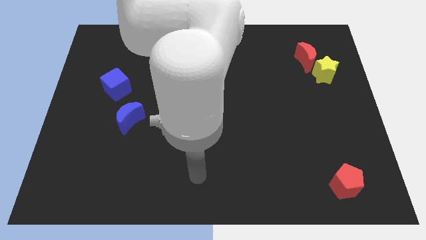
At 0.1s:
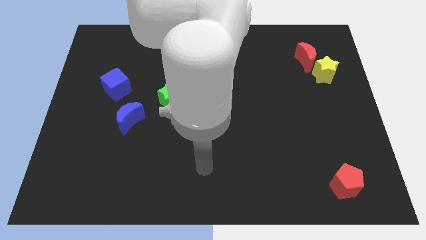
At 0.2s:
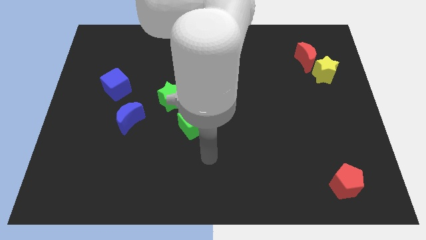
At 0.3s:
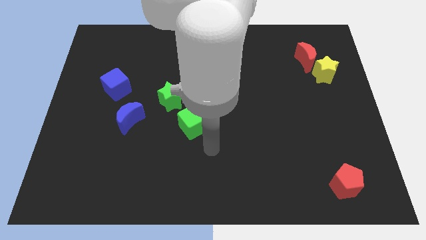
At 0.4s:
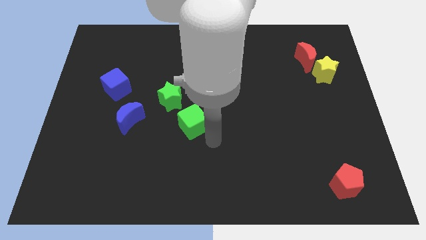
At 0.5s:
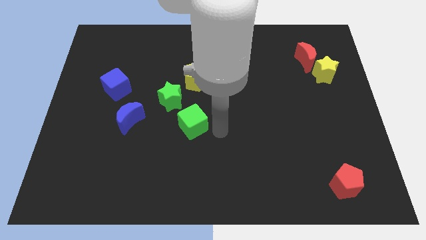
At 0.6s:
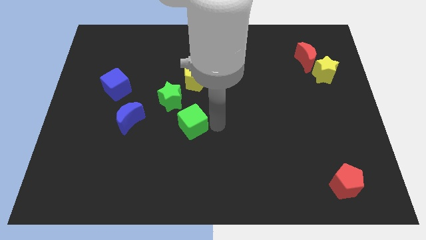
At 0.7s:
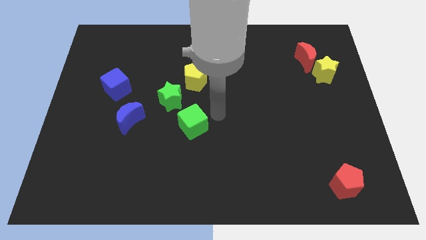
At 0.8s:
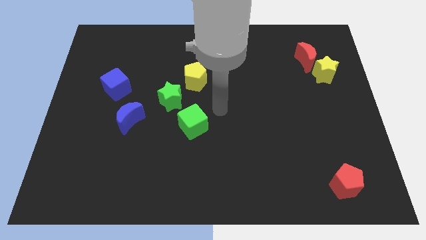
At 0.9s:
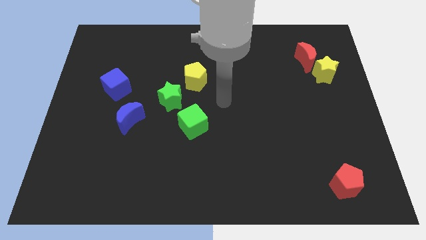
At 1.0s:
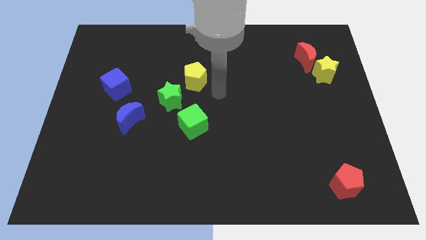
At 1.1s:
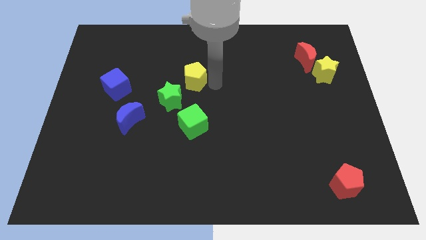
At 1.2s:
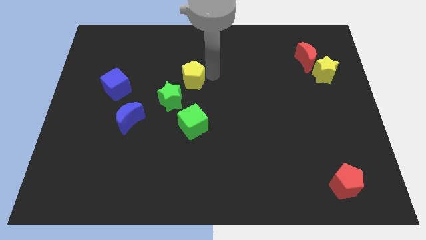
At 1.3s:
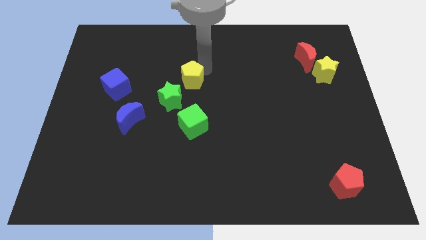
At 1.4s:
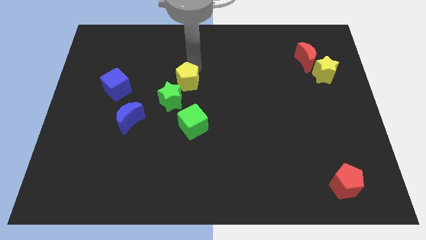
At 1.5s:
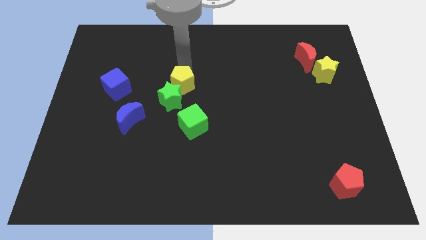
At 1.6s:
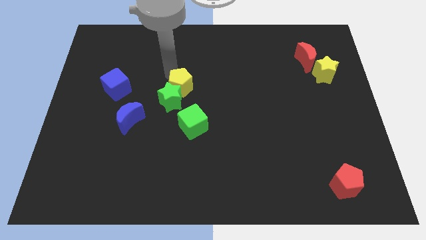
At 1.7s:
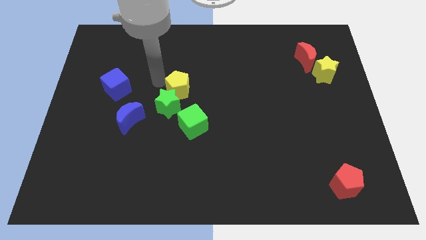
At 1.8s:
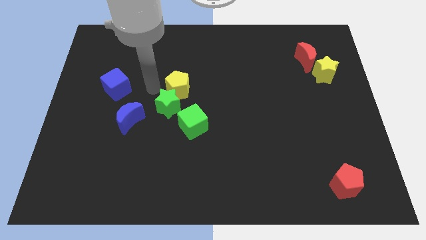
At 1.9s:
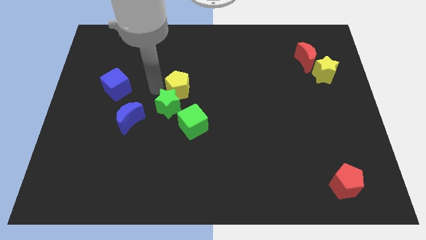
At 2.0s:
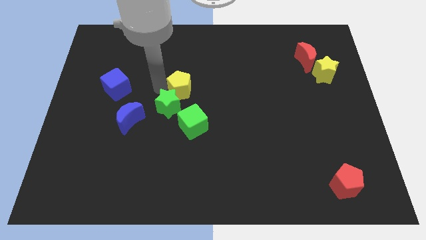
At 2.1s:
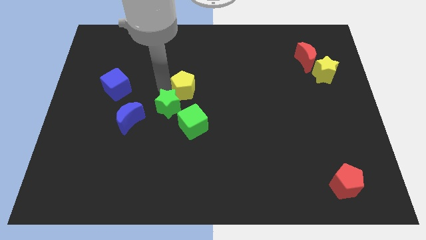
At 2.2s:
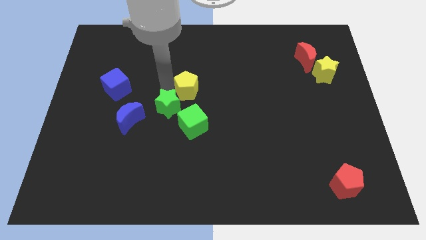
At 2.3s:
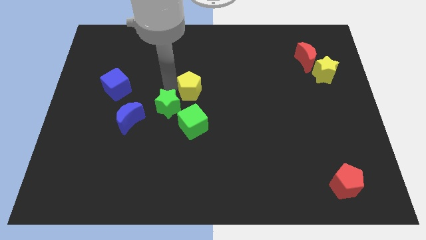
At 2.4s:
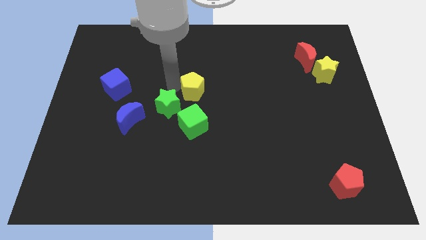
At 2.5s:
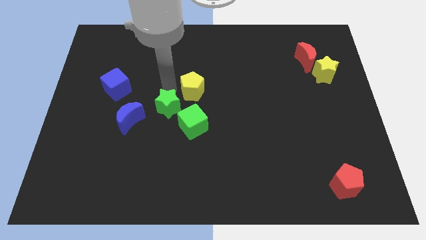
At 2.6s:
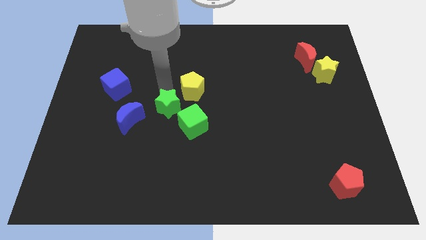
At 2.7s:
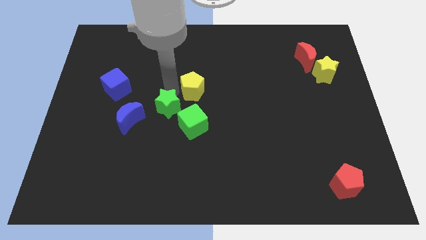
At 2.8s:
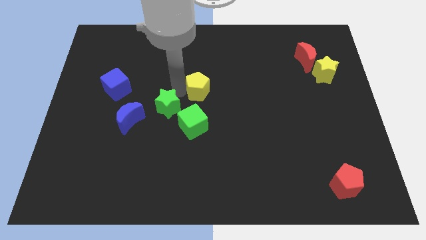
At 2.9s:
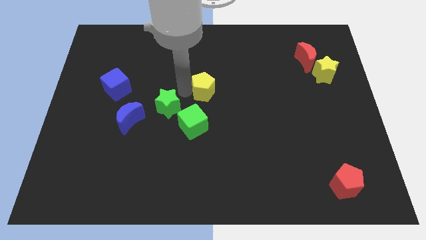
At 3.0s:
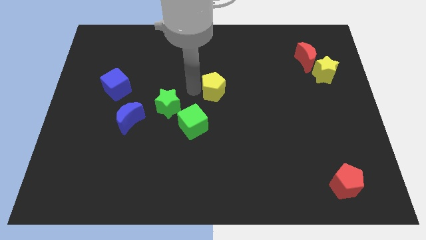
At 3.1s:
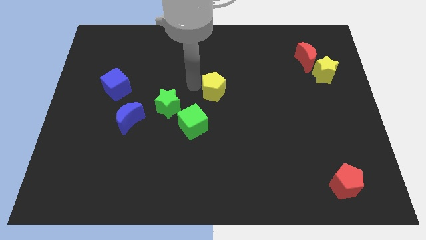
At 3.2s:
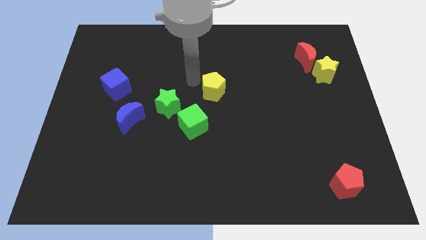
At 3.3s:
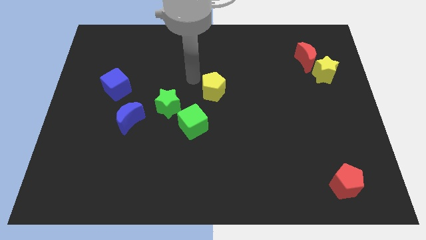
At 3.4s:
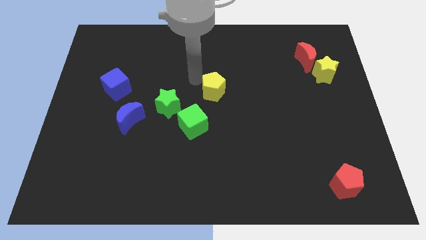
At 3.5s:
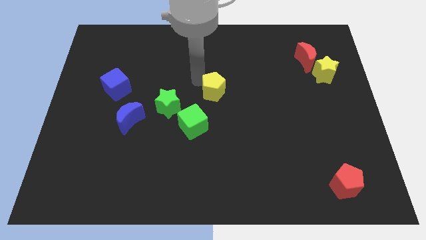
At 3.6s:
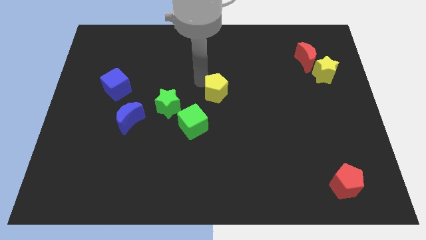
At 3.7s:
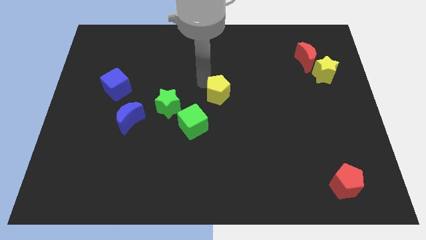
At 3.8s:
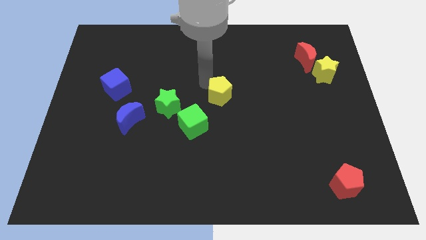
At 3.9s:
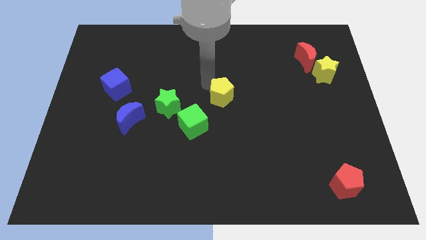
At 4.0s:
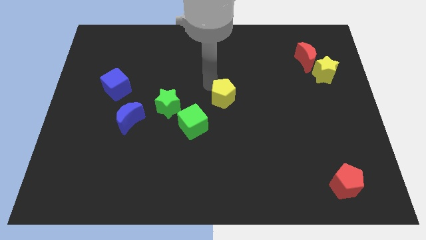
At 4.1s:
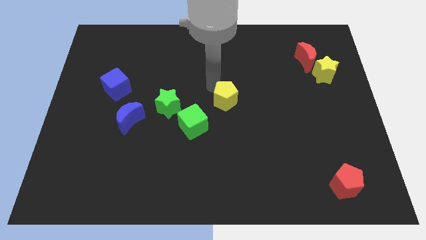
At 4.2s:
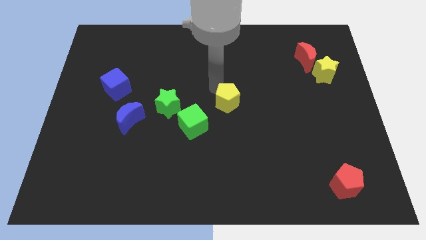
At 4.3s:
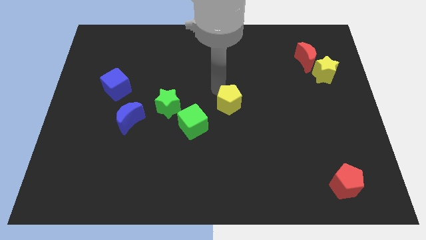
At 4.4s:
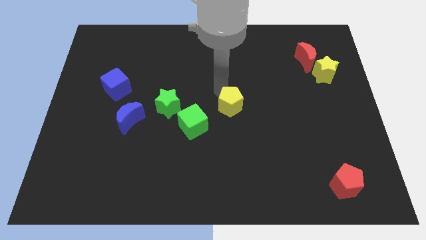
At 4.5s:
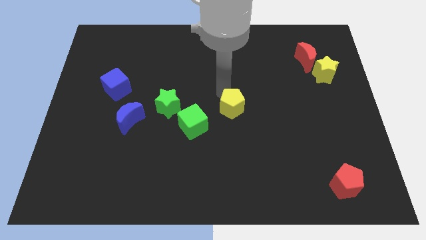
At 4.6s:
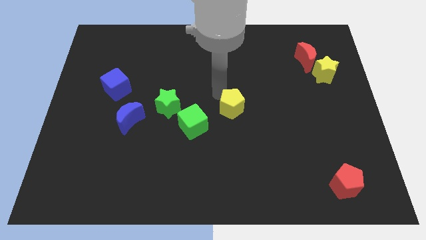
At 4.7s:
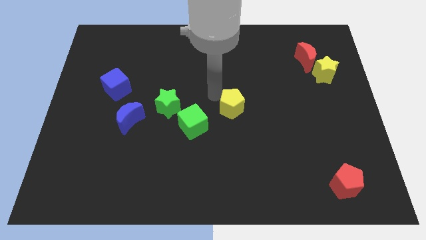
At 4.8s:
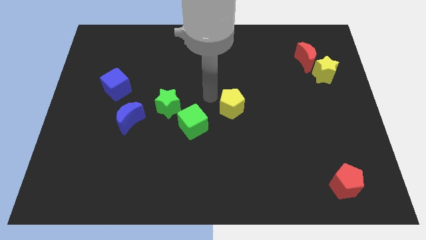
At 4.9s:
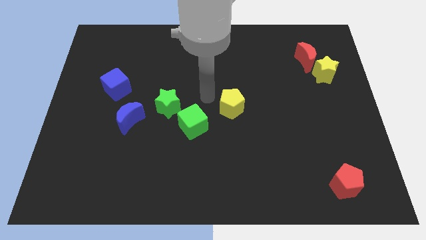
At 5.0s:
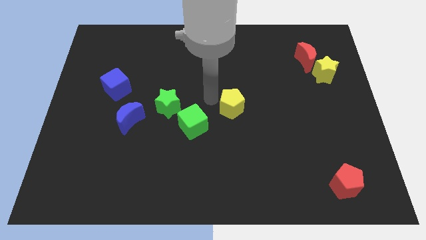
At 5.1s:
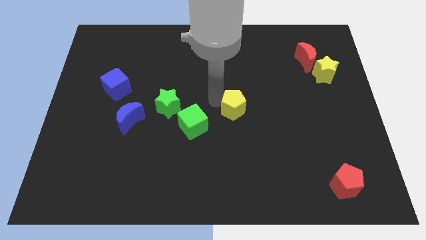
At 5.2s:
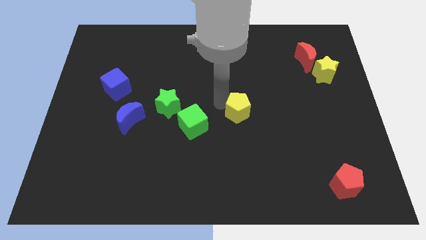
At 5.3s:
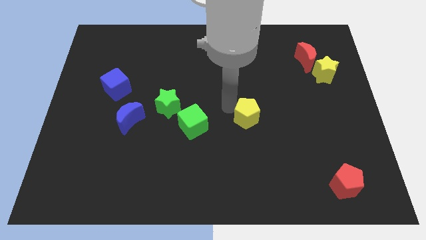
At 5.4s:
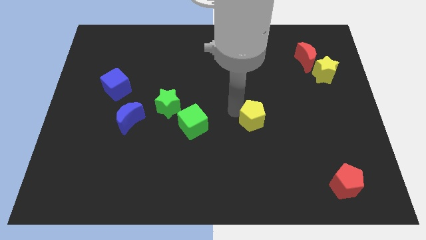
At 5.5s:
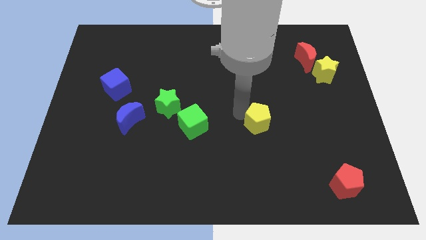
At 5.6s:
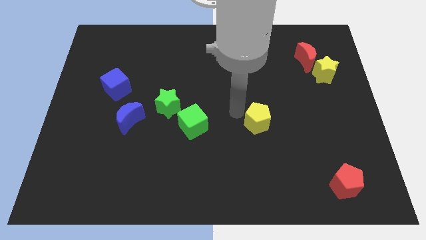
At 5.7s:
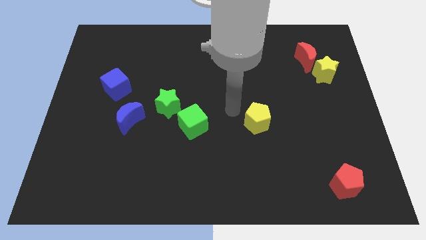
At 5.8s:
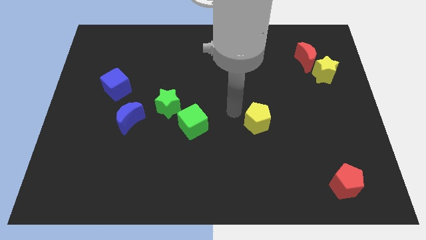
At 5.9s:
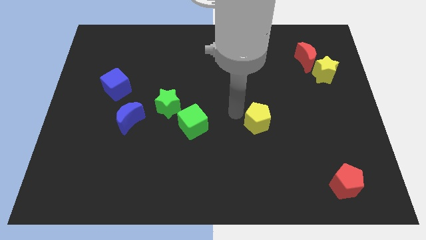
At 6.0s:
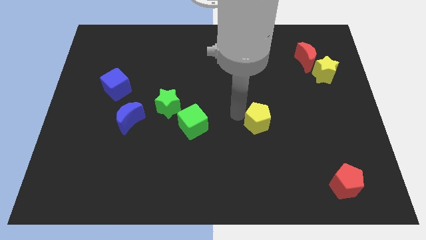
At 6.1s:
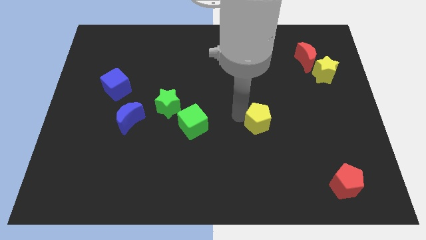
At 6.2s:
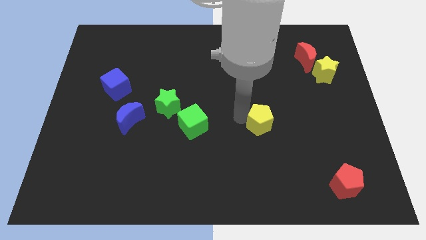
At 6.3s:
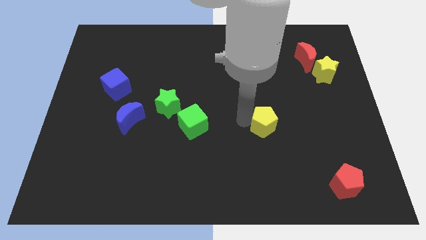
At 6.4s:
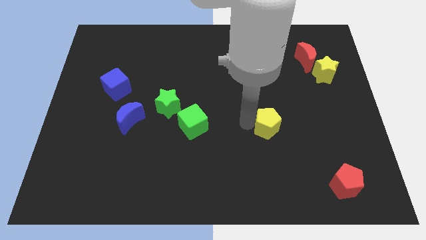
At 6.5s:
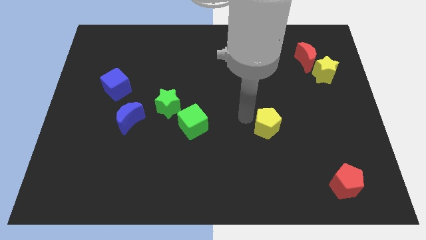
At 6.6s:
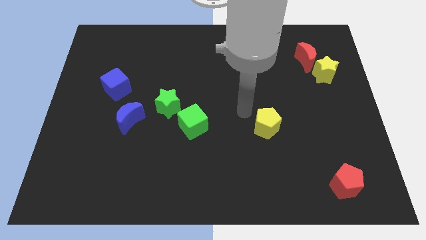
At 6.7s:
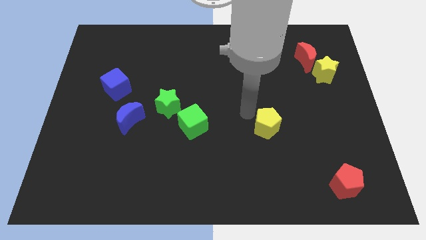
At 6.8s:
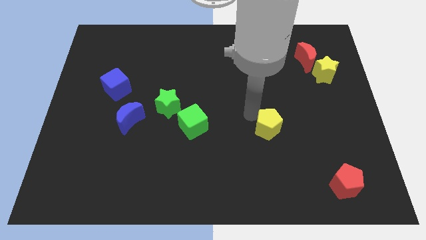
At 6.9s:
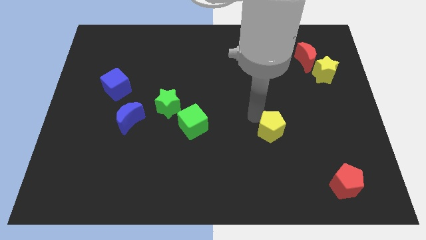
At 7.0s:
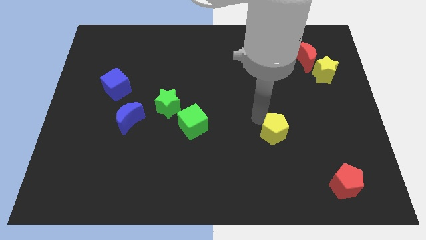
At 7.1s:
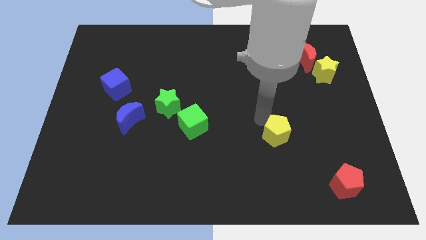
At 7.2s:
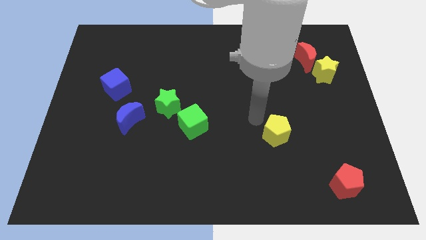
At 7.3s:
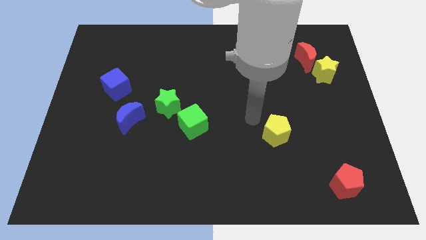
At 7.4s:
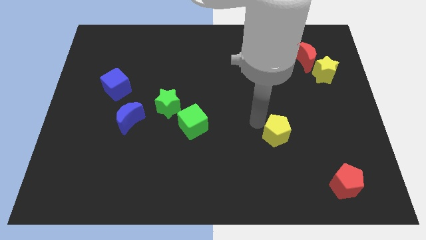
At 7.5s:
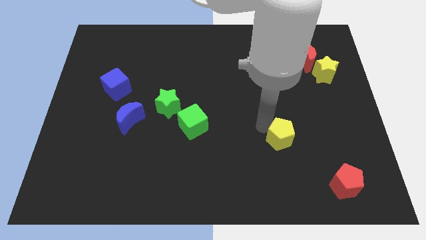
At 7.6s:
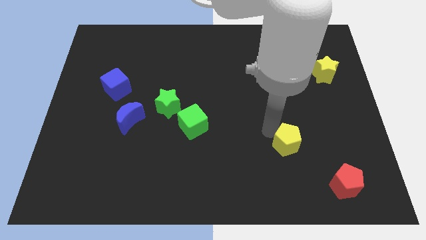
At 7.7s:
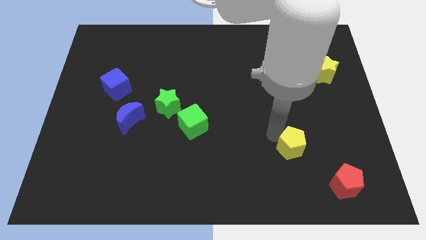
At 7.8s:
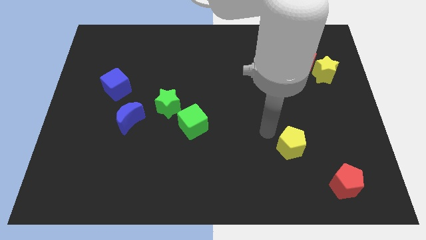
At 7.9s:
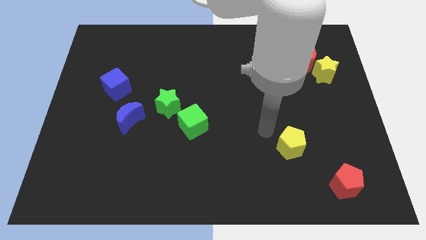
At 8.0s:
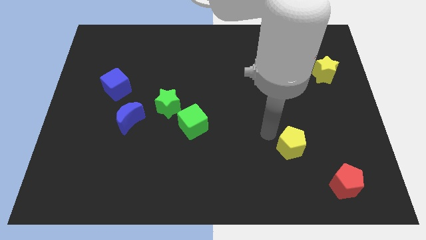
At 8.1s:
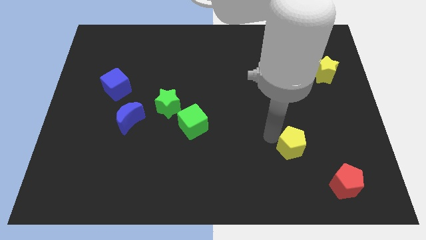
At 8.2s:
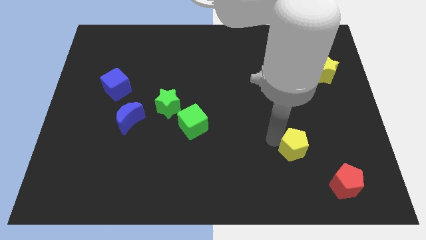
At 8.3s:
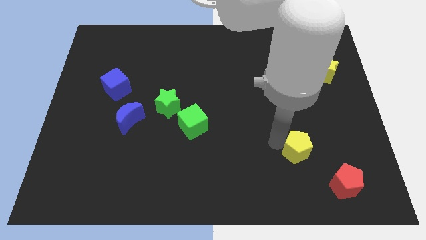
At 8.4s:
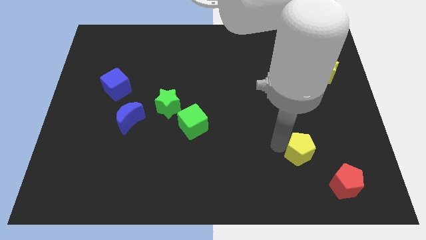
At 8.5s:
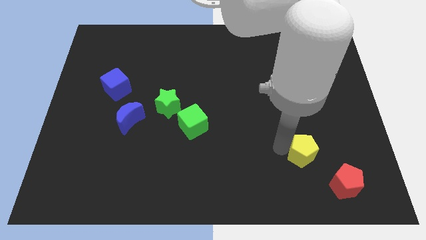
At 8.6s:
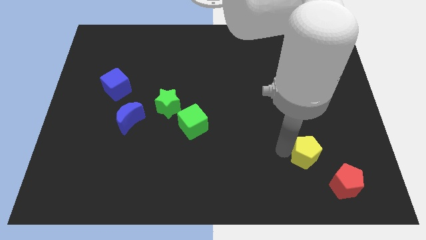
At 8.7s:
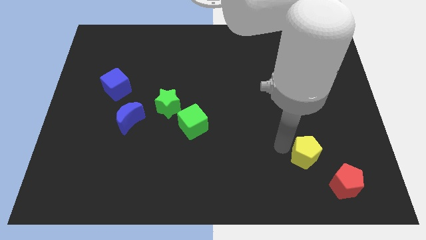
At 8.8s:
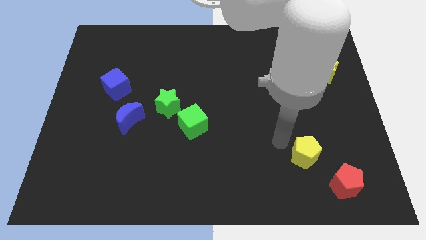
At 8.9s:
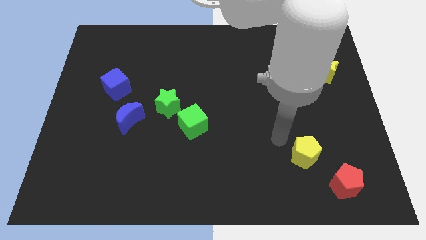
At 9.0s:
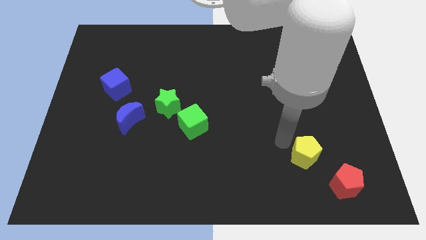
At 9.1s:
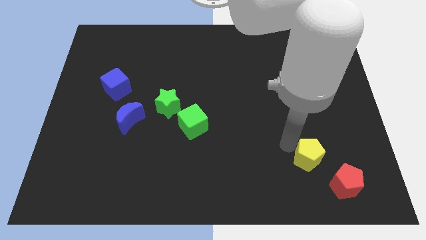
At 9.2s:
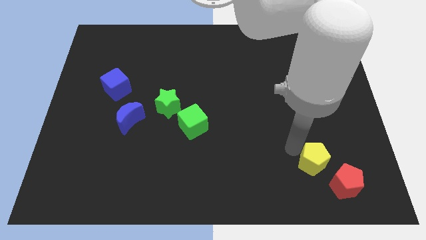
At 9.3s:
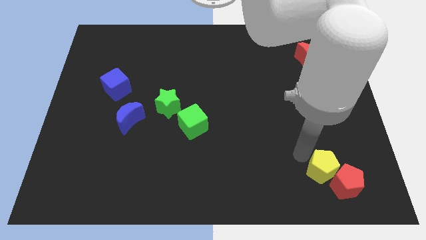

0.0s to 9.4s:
put the yellow pentagon next to the red pentagon
